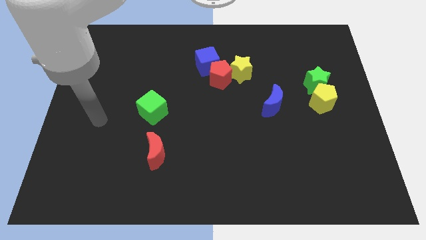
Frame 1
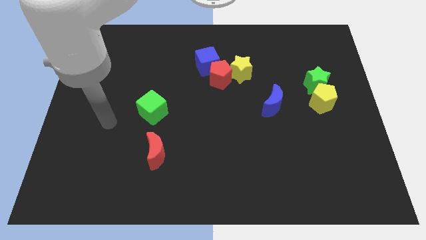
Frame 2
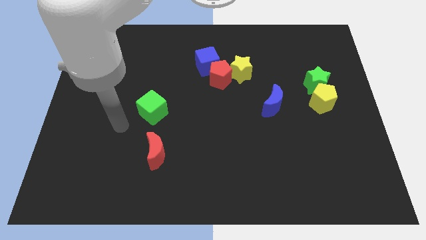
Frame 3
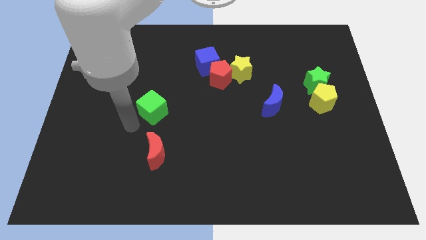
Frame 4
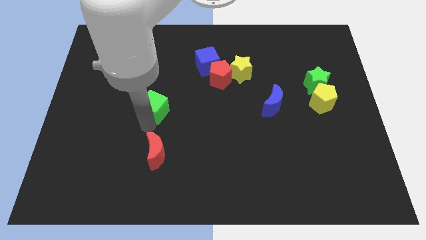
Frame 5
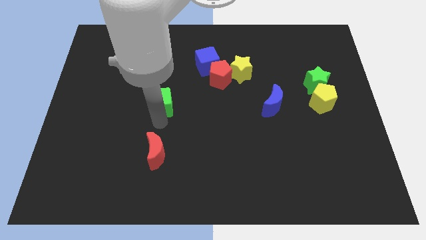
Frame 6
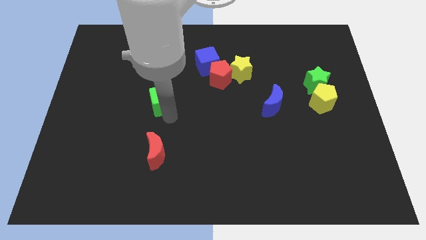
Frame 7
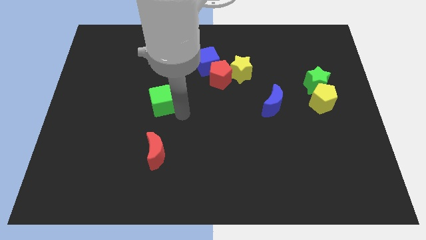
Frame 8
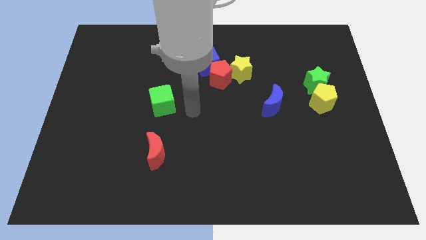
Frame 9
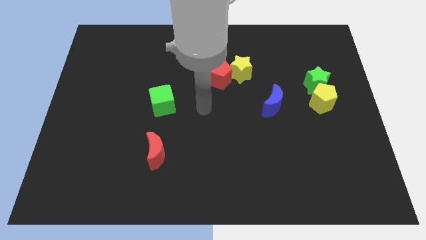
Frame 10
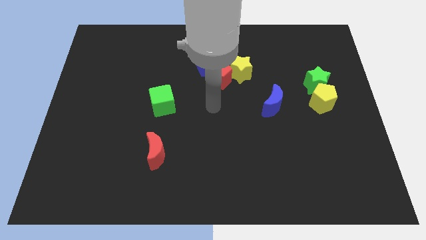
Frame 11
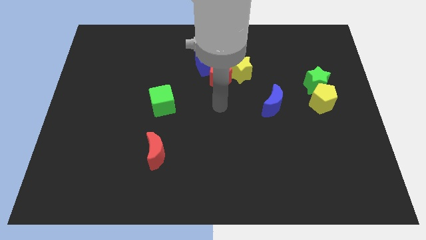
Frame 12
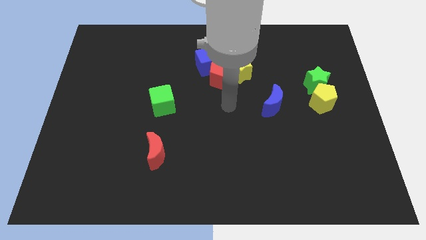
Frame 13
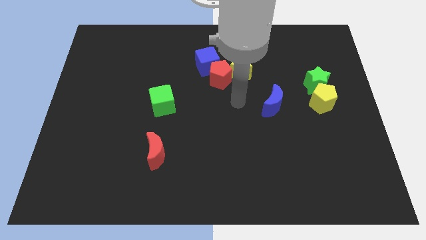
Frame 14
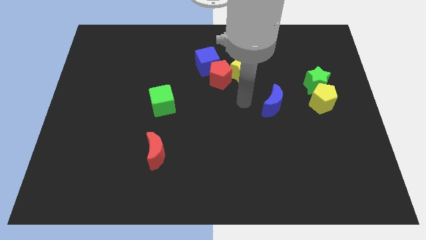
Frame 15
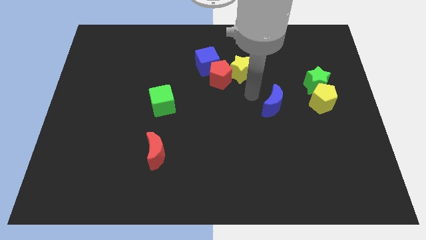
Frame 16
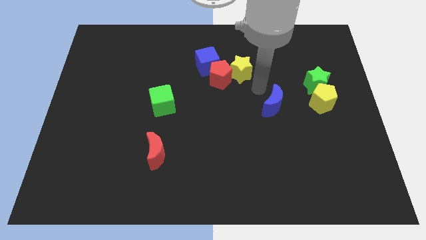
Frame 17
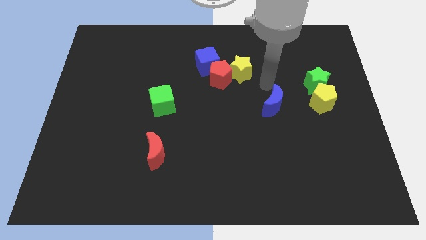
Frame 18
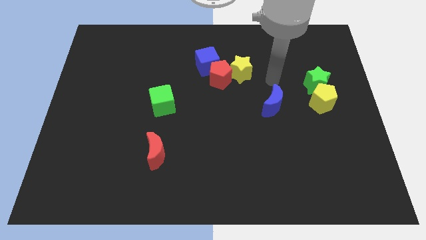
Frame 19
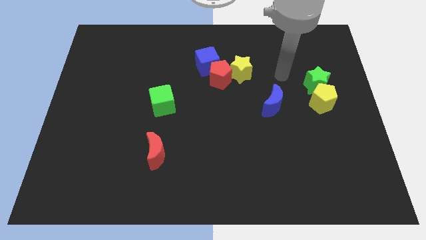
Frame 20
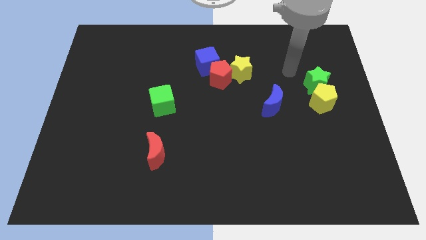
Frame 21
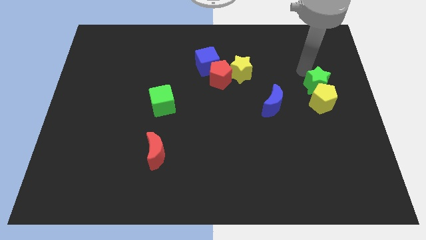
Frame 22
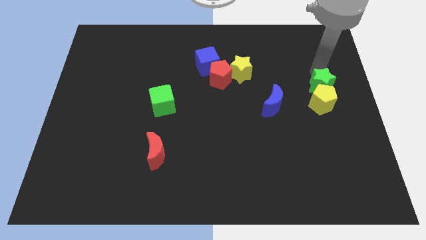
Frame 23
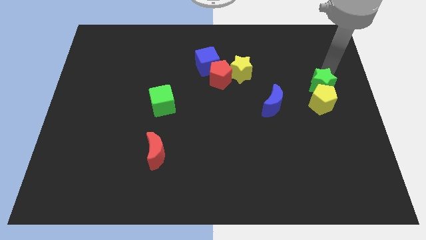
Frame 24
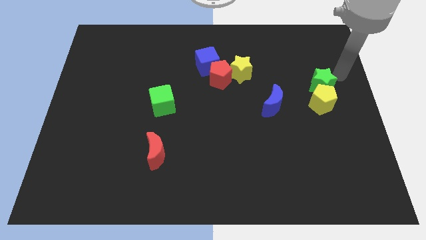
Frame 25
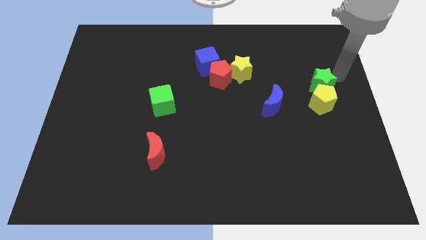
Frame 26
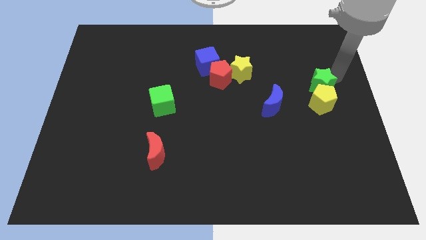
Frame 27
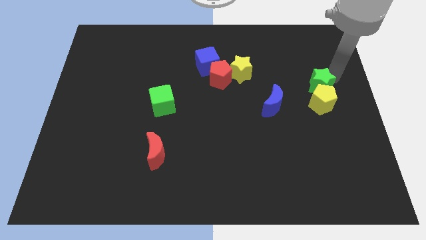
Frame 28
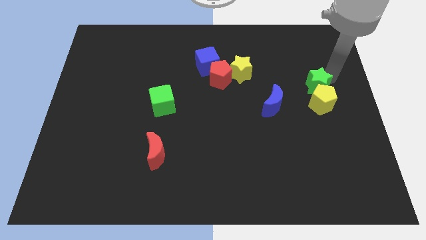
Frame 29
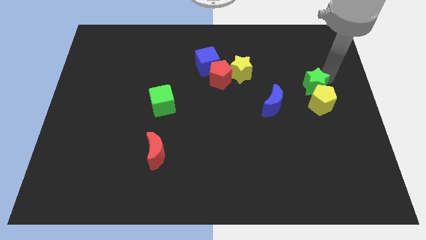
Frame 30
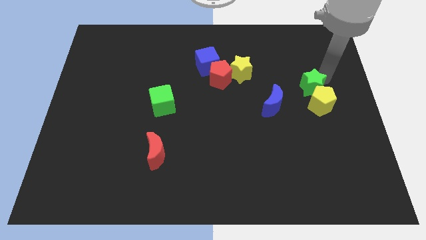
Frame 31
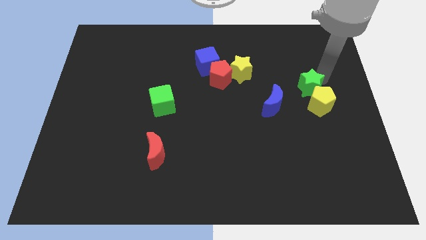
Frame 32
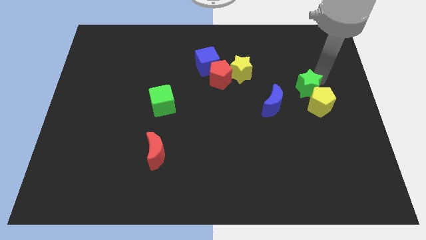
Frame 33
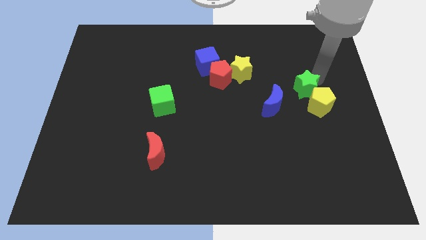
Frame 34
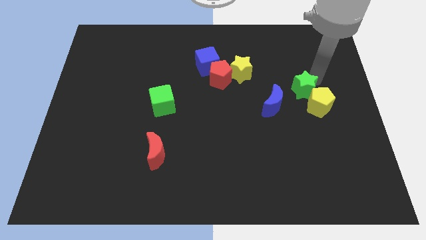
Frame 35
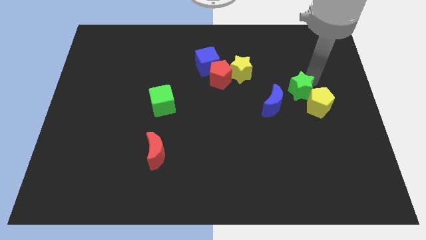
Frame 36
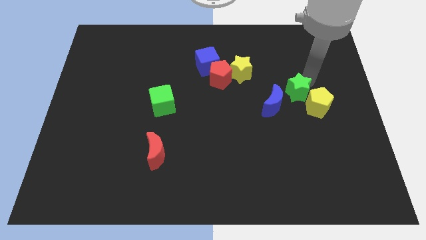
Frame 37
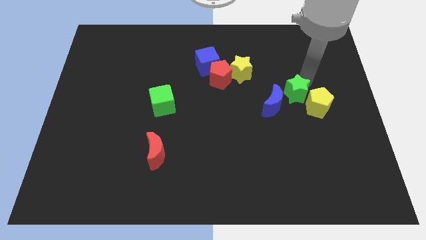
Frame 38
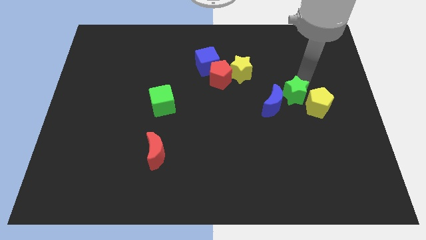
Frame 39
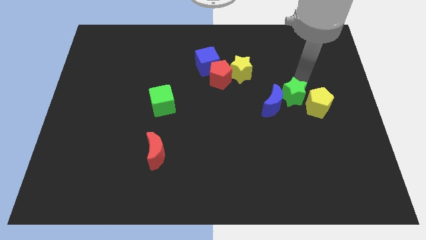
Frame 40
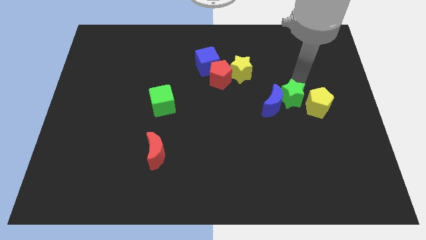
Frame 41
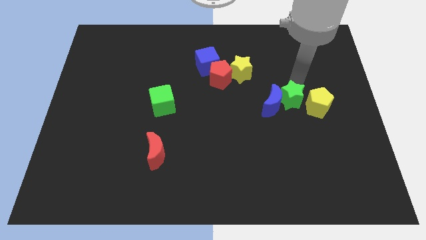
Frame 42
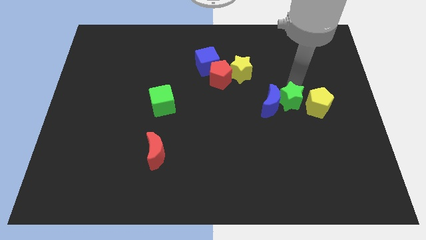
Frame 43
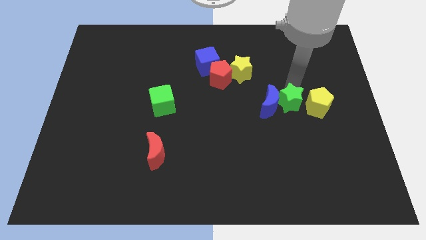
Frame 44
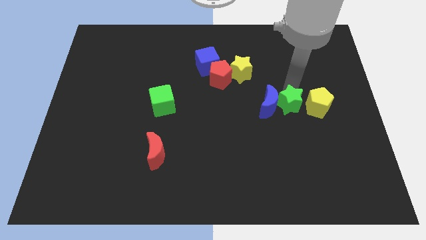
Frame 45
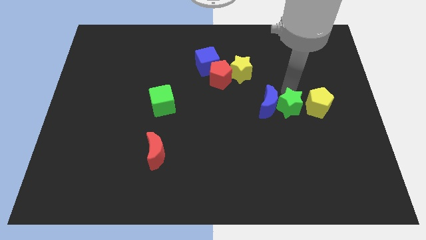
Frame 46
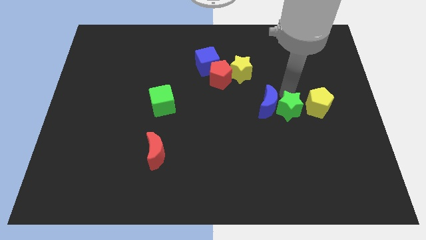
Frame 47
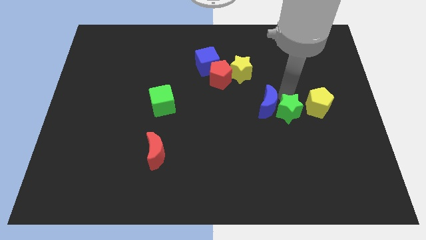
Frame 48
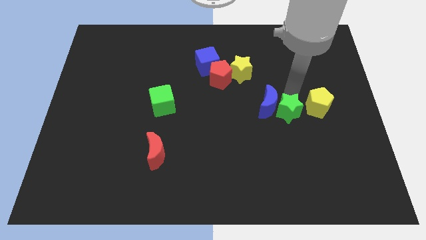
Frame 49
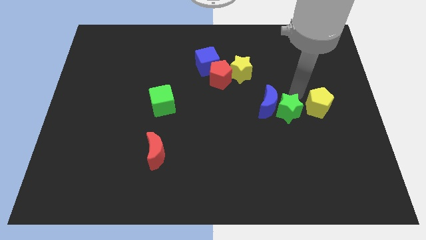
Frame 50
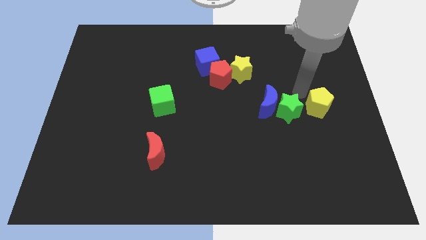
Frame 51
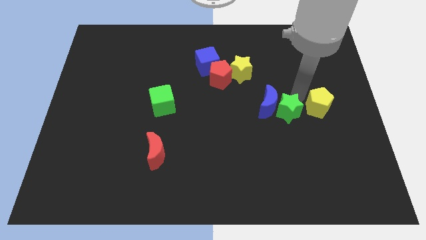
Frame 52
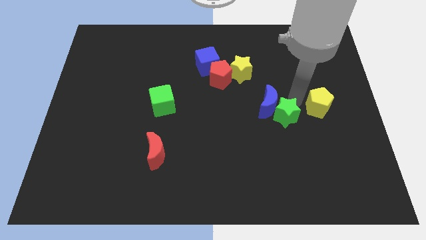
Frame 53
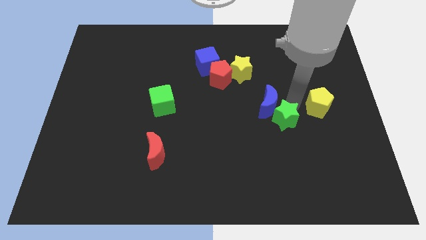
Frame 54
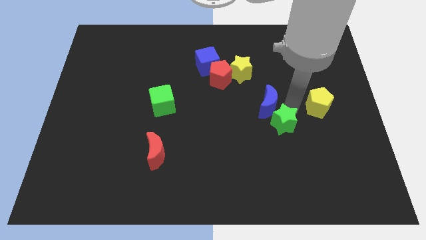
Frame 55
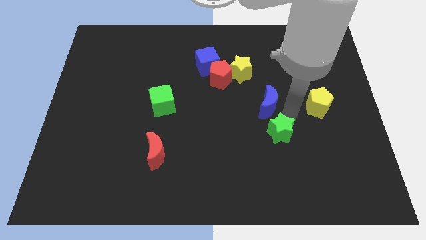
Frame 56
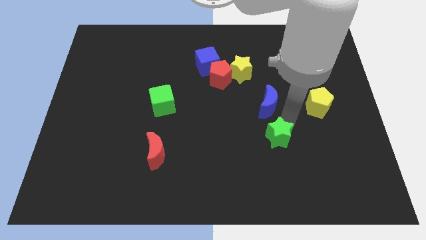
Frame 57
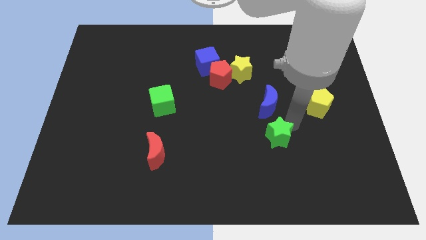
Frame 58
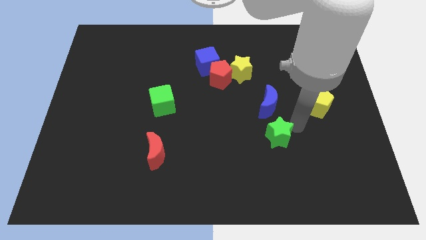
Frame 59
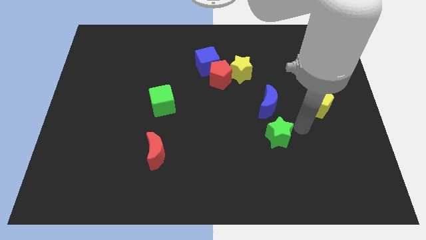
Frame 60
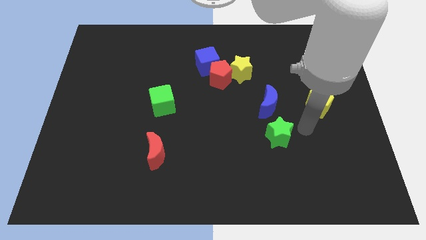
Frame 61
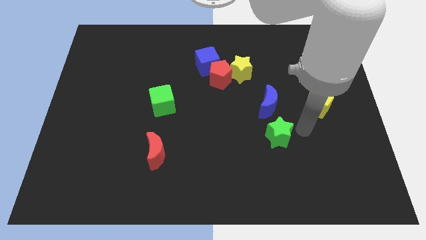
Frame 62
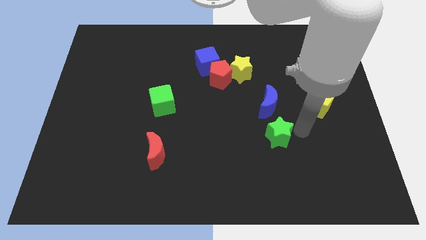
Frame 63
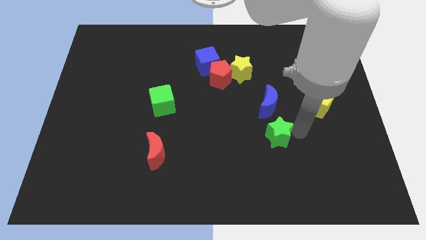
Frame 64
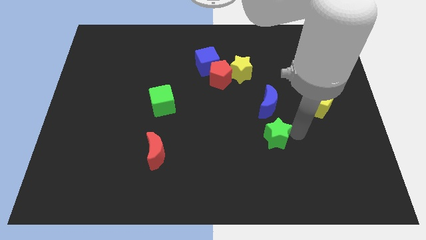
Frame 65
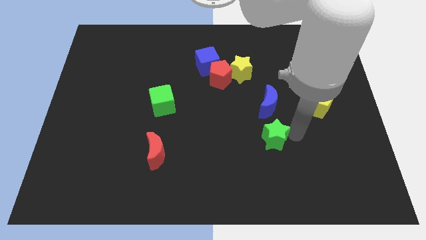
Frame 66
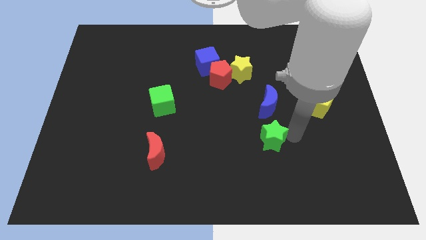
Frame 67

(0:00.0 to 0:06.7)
move the green star down and then left

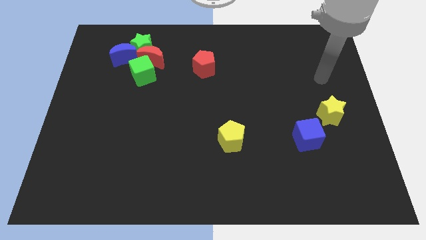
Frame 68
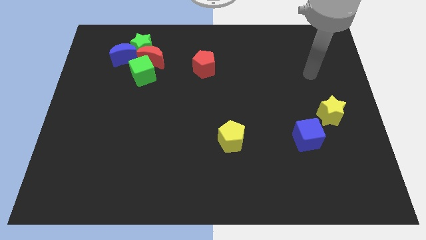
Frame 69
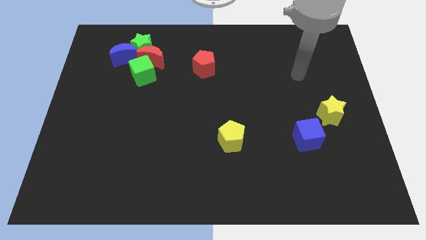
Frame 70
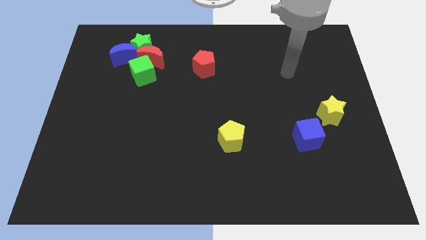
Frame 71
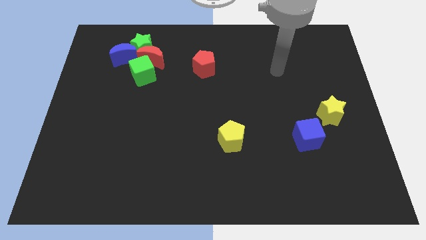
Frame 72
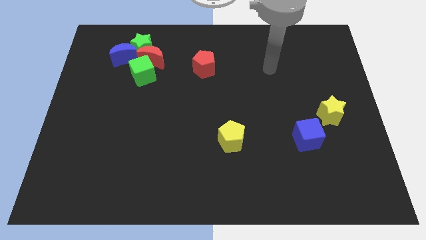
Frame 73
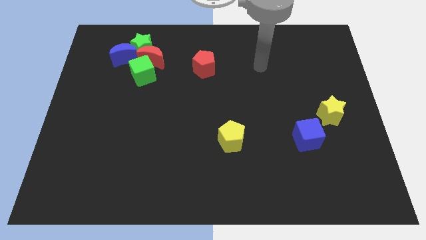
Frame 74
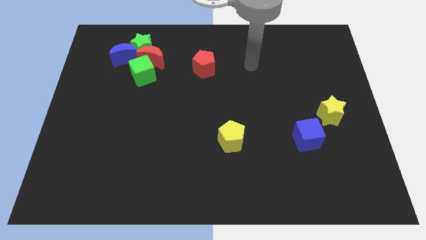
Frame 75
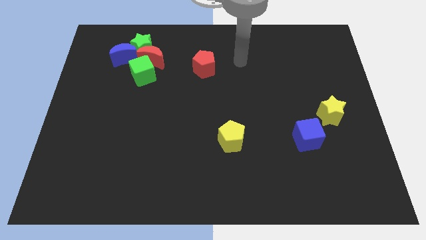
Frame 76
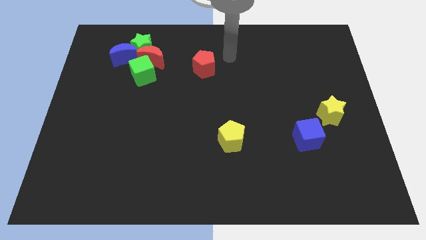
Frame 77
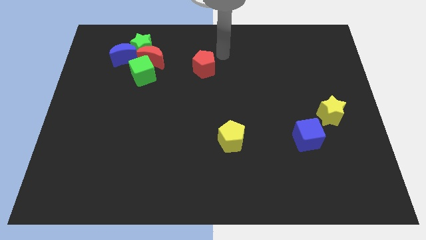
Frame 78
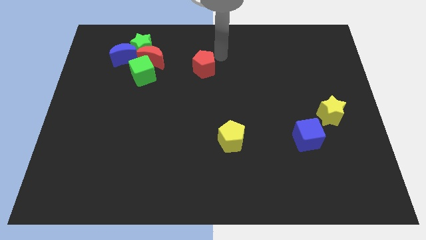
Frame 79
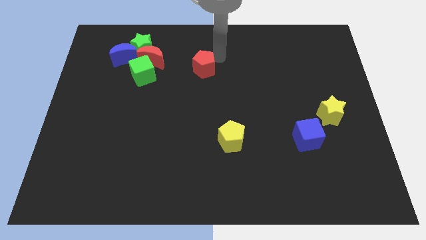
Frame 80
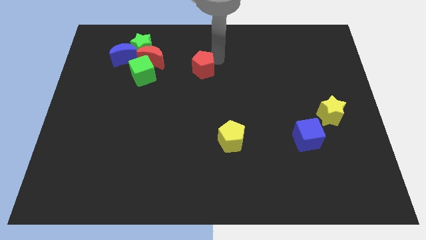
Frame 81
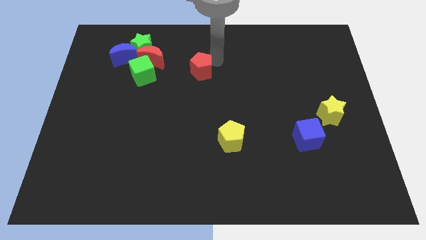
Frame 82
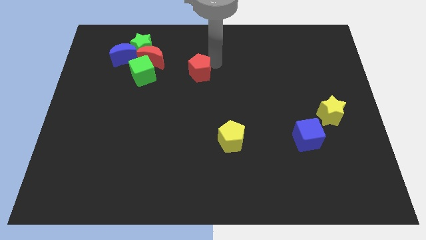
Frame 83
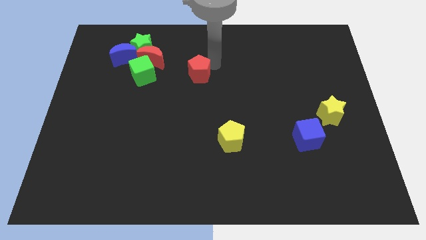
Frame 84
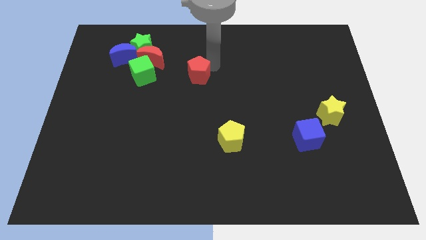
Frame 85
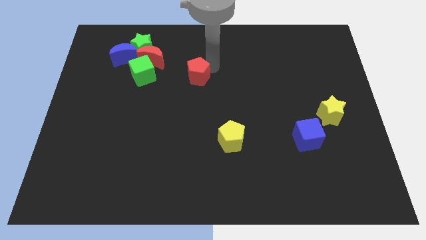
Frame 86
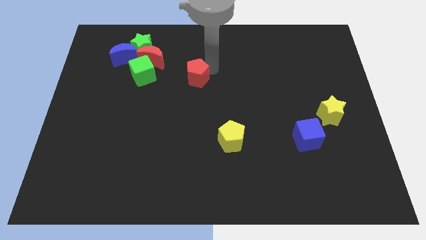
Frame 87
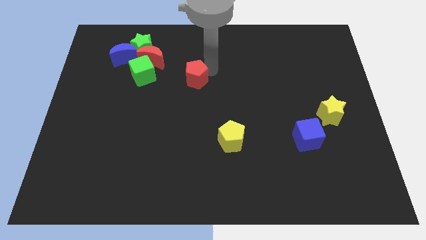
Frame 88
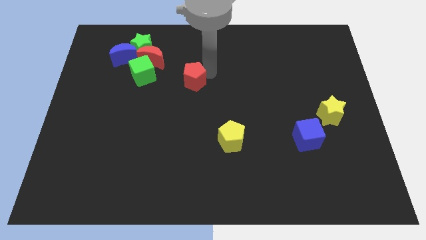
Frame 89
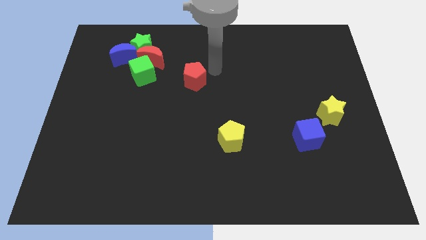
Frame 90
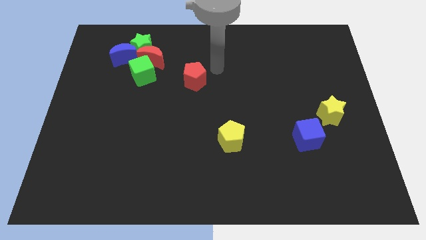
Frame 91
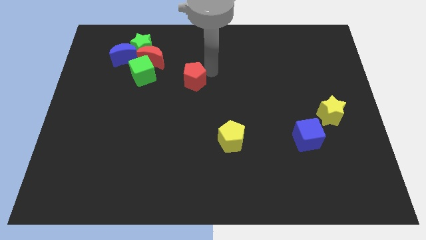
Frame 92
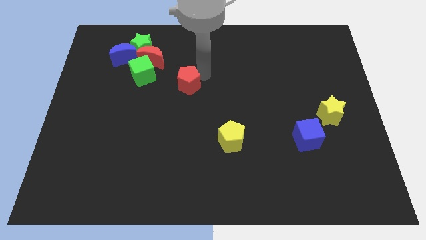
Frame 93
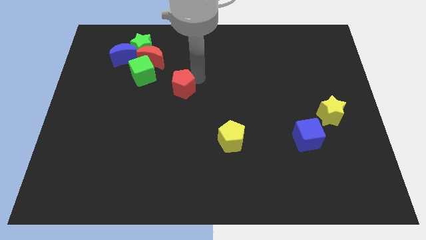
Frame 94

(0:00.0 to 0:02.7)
push the red pentagon slightly down and to the left
